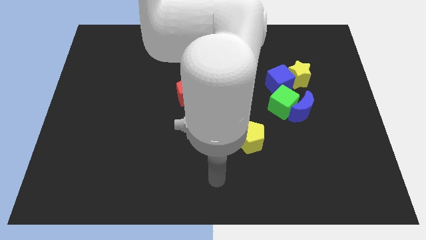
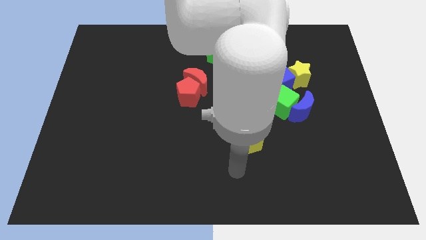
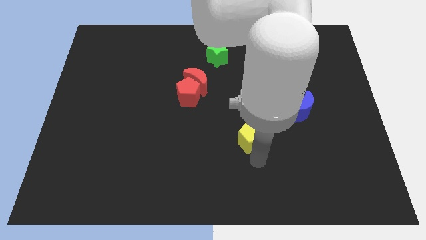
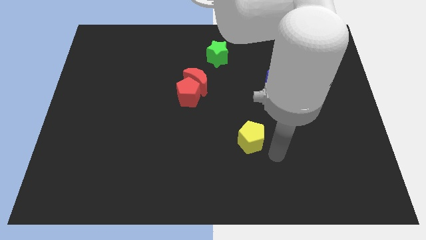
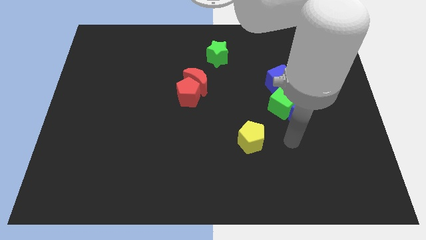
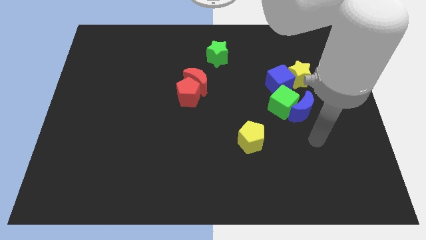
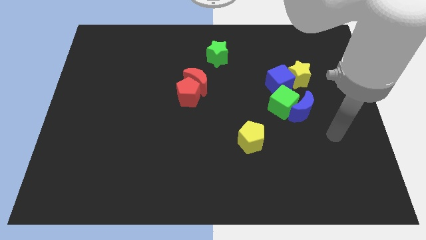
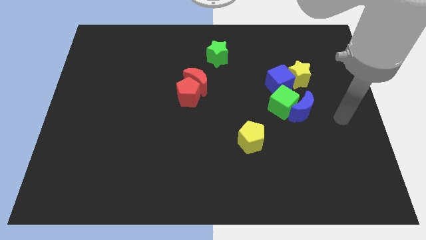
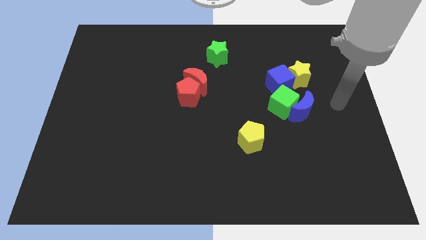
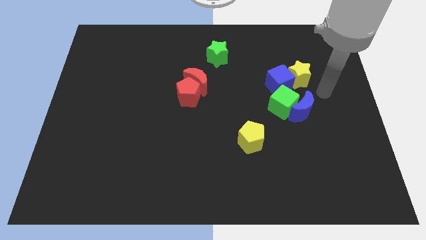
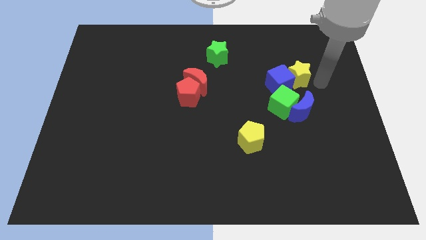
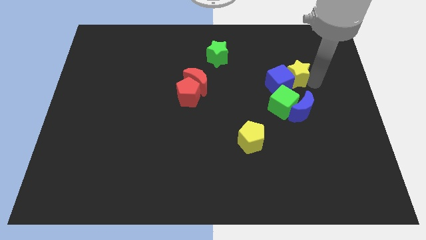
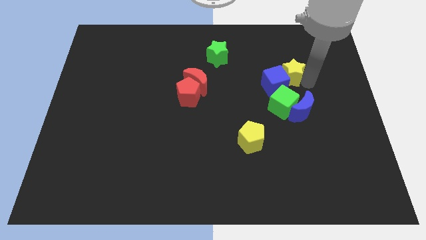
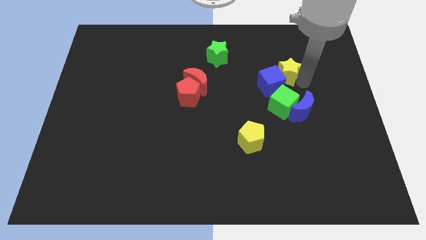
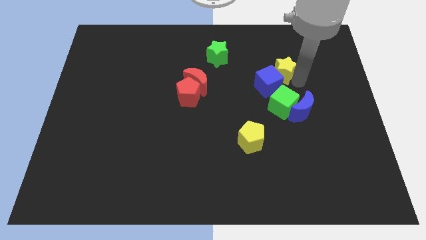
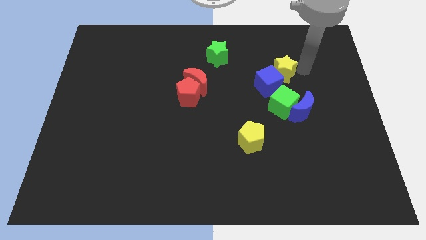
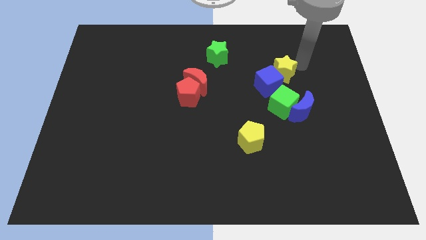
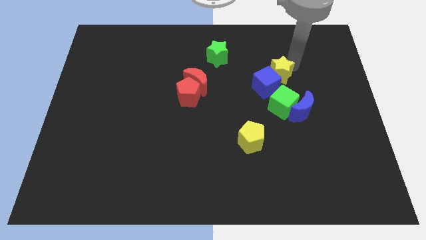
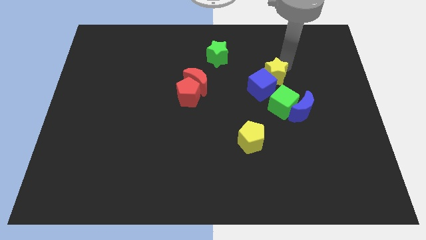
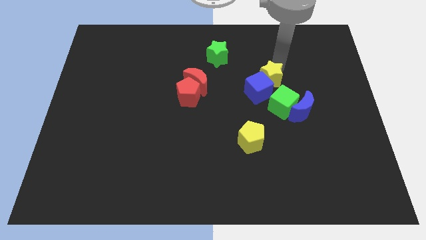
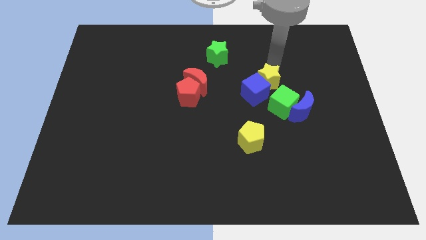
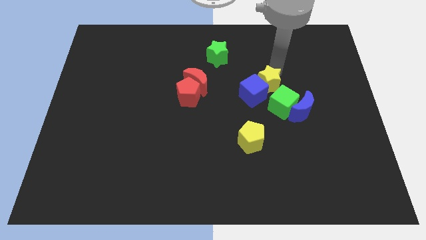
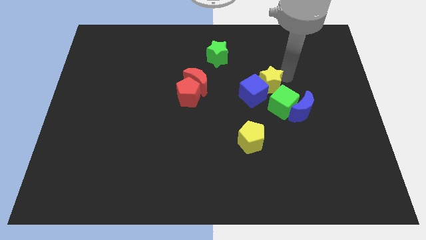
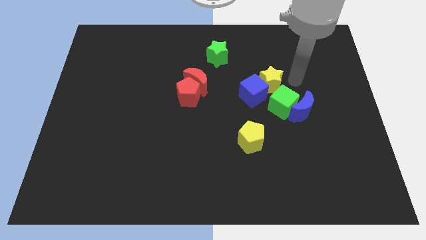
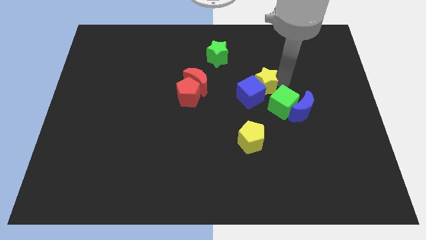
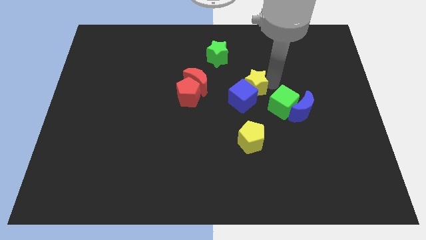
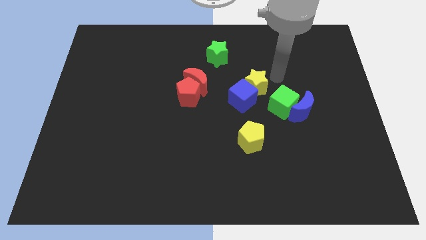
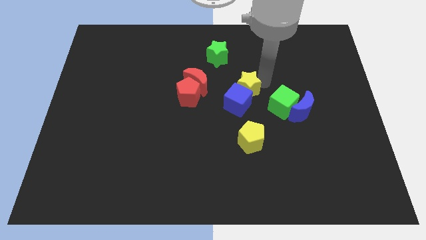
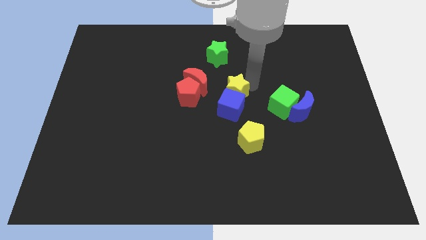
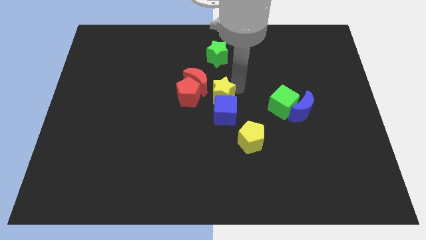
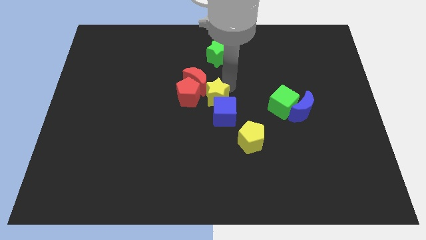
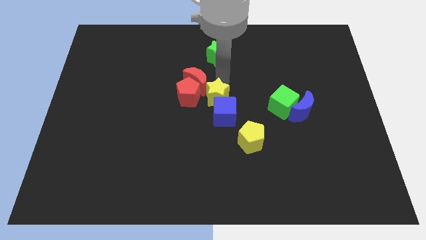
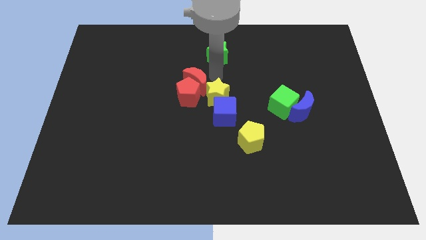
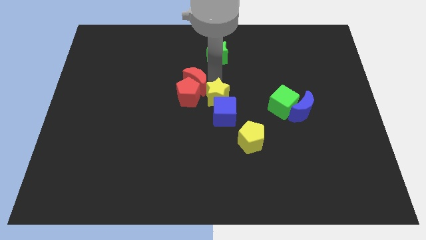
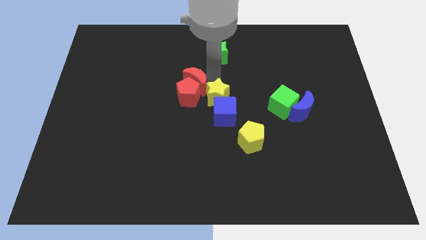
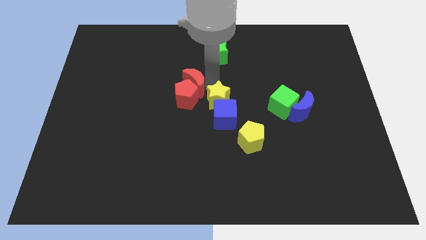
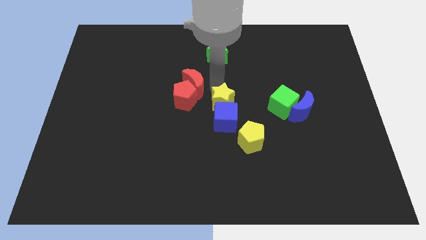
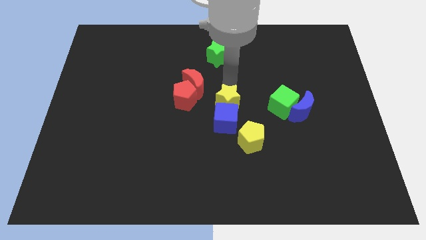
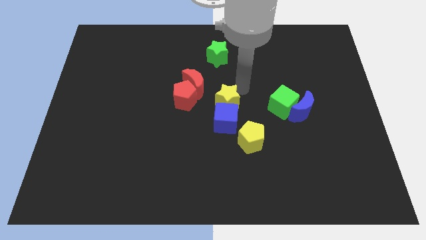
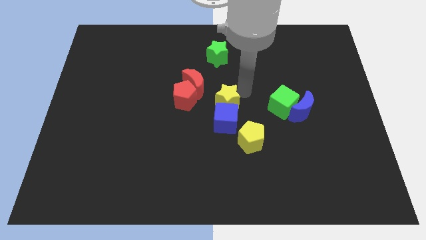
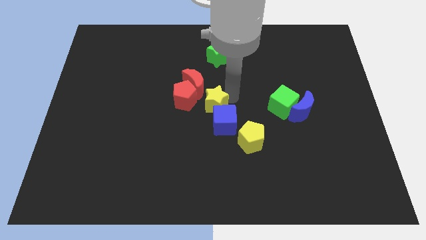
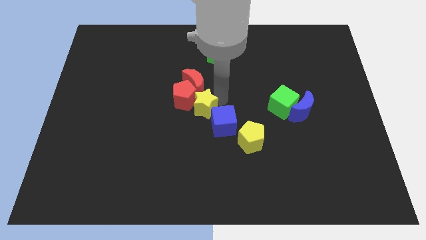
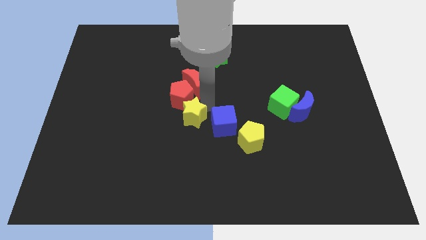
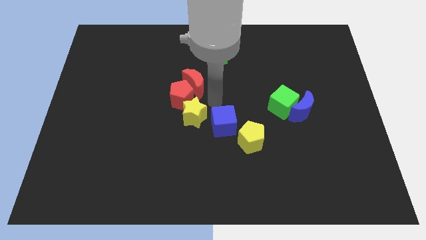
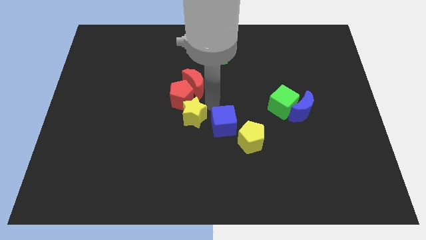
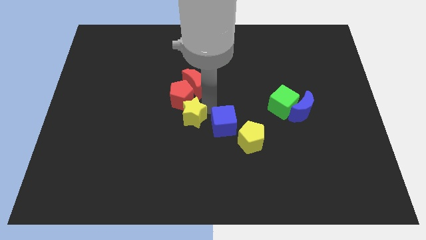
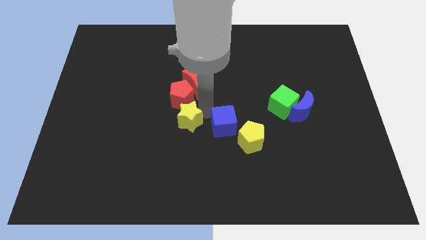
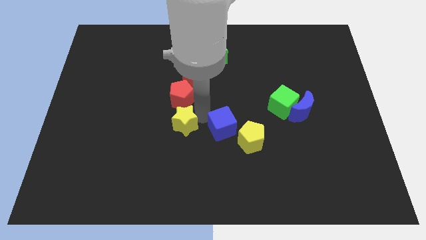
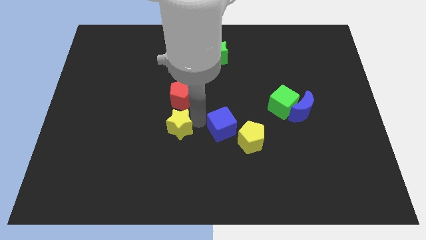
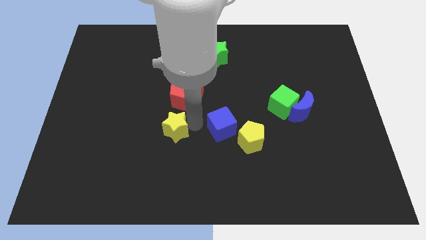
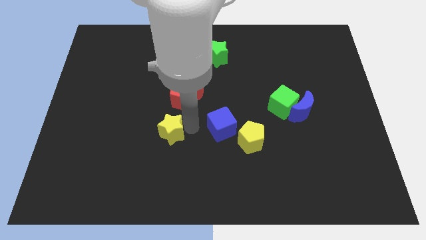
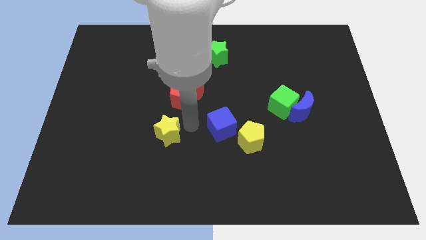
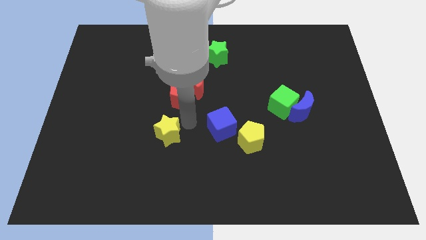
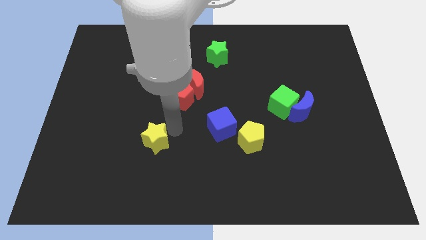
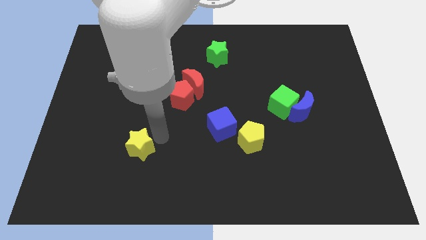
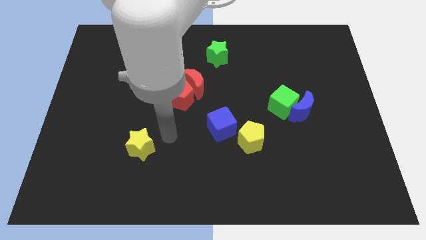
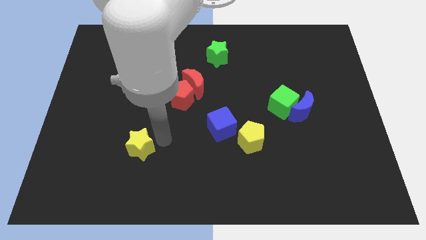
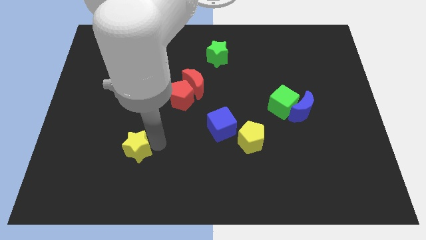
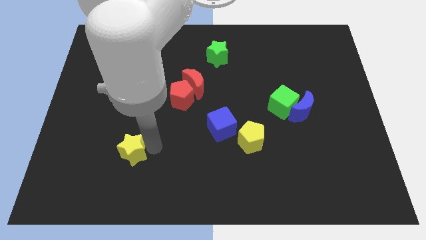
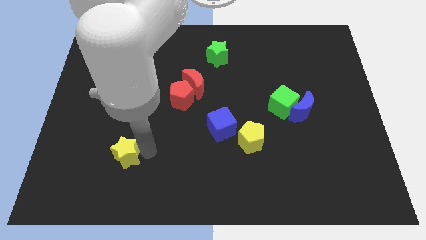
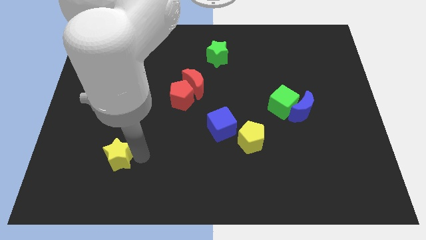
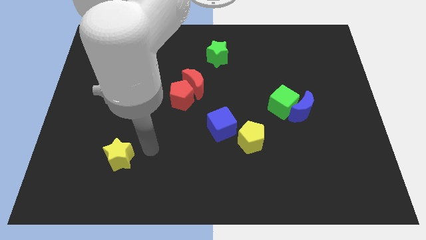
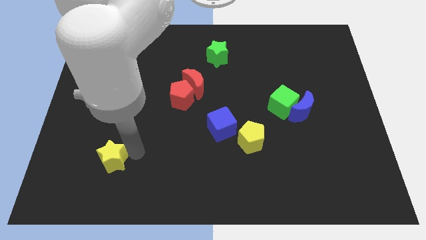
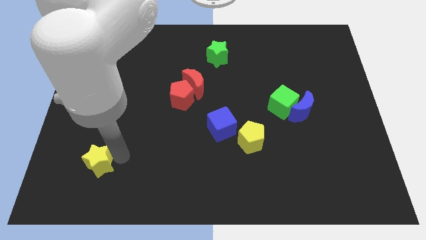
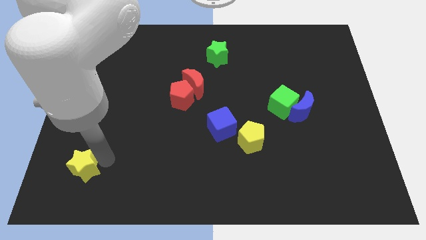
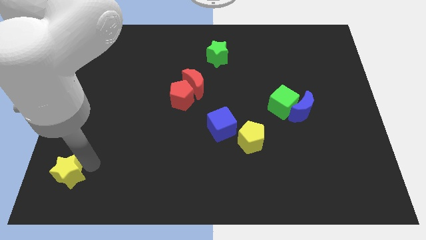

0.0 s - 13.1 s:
put the yellow star to the bottom left corner
